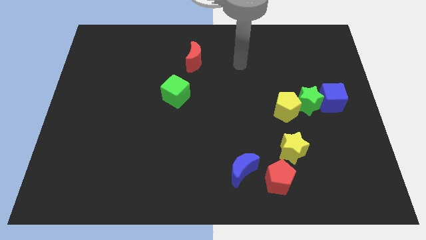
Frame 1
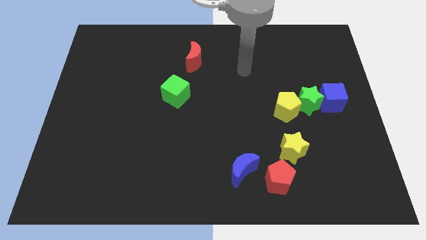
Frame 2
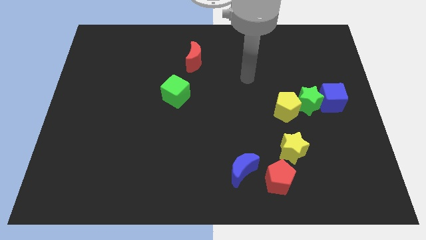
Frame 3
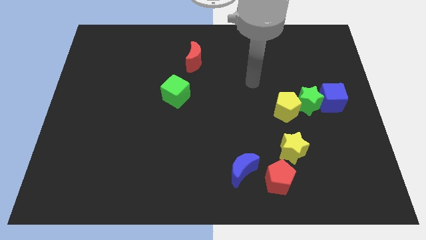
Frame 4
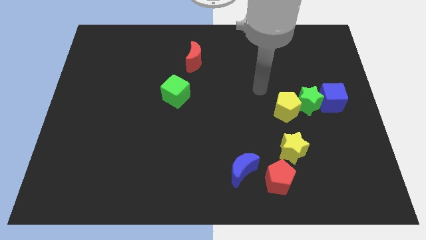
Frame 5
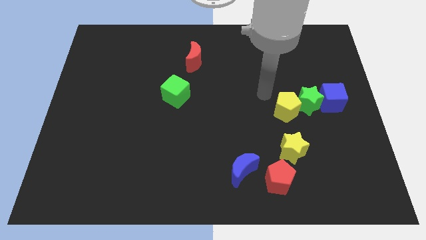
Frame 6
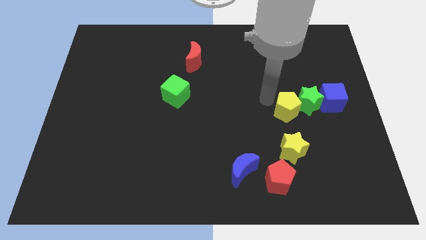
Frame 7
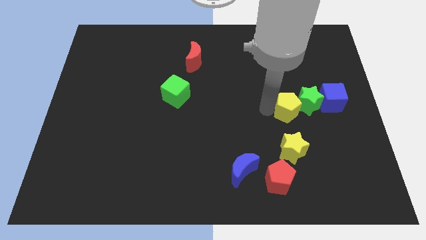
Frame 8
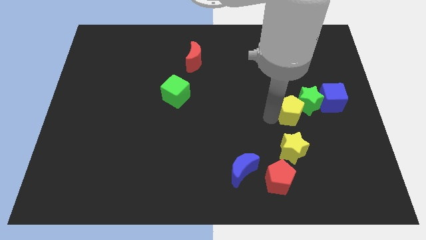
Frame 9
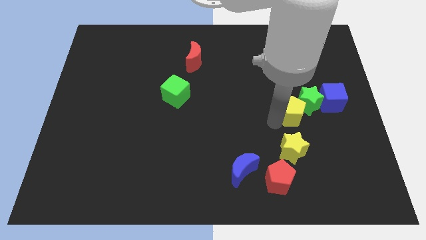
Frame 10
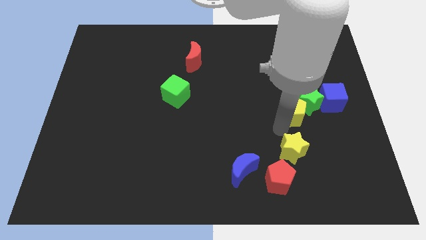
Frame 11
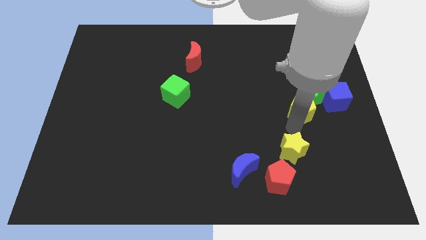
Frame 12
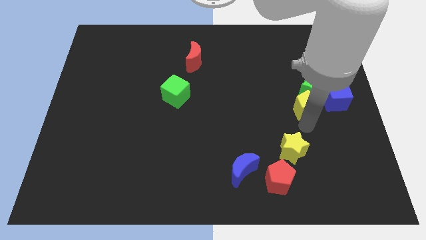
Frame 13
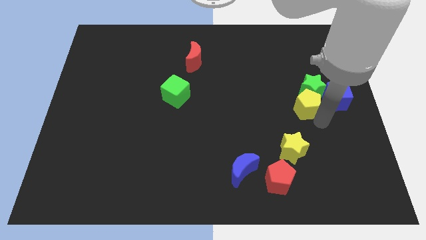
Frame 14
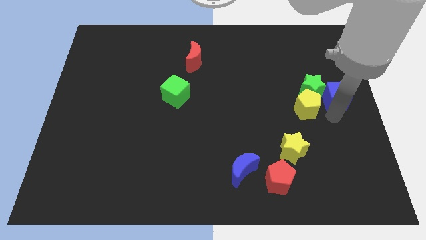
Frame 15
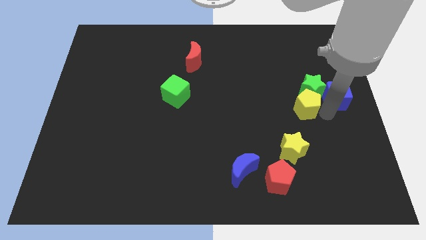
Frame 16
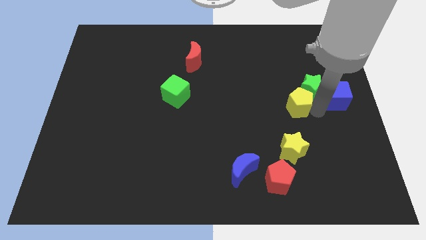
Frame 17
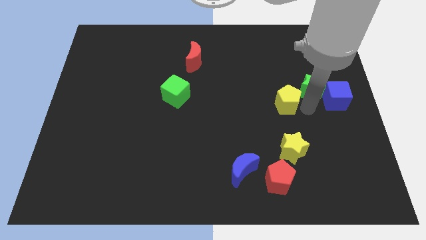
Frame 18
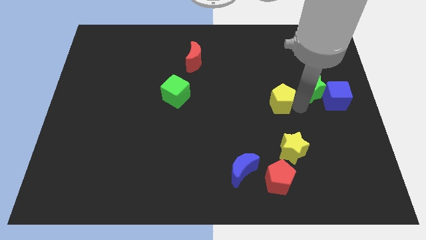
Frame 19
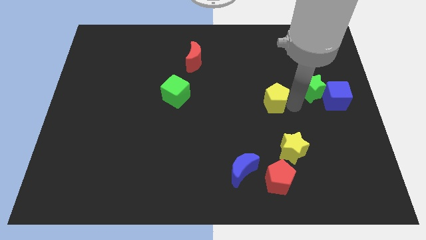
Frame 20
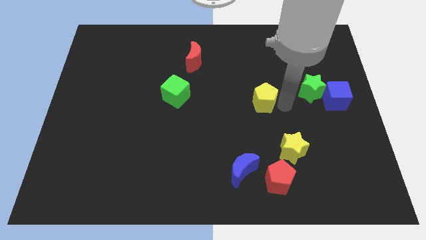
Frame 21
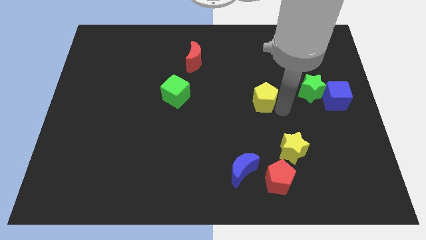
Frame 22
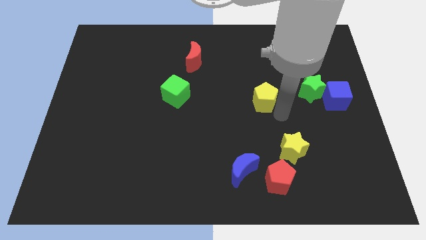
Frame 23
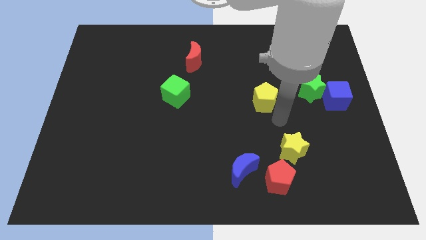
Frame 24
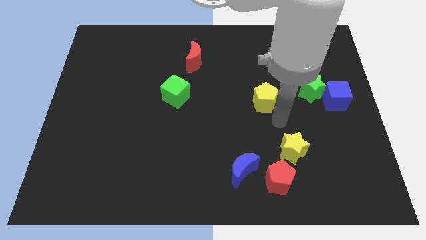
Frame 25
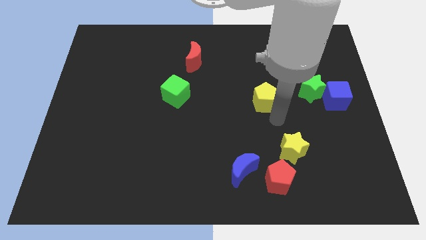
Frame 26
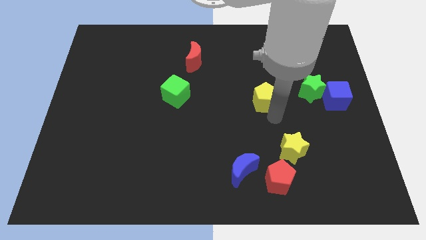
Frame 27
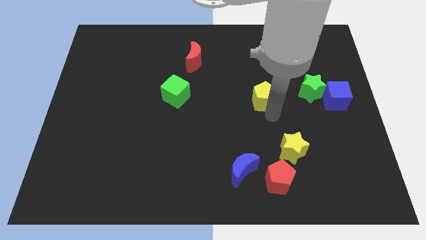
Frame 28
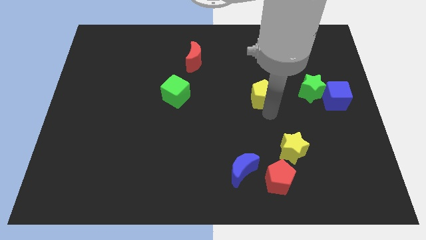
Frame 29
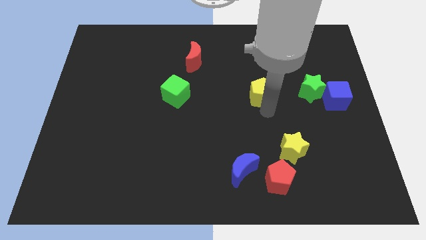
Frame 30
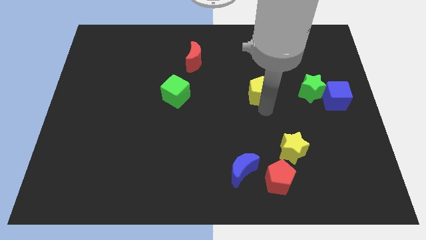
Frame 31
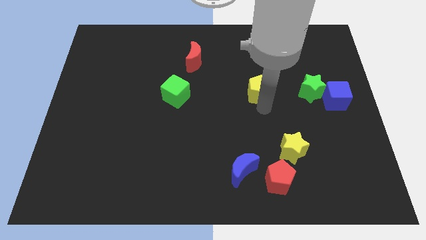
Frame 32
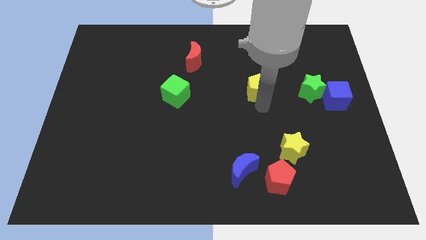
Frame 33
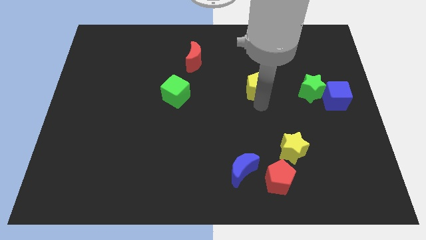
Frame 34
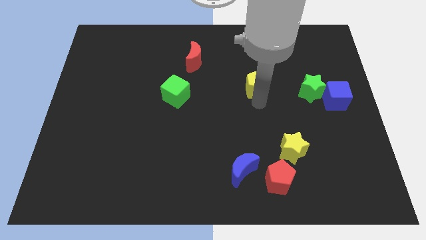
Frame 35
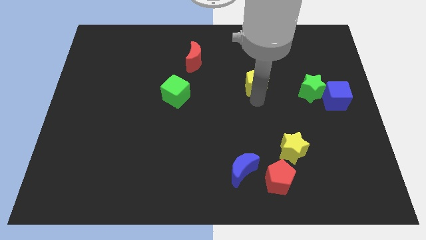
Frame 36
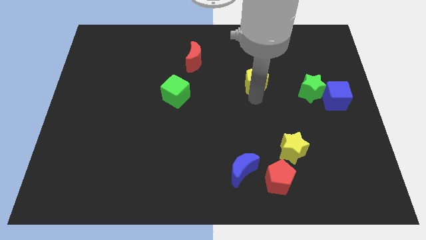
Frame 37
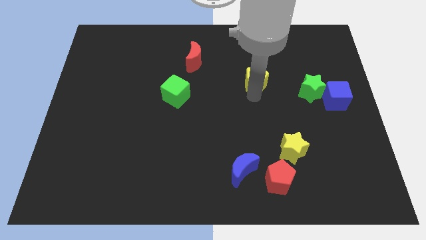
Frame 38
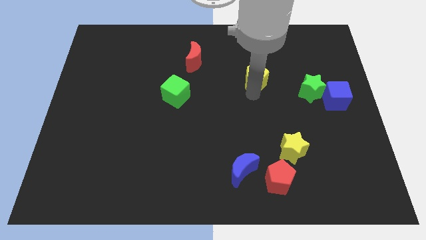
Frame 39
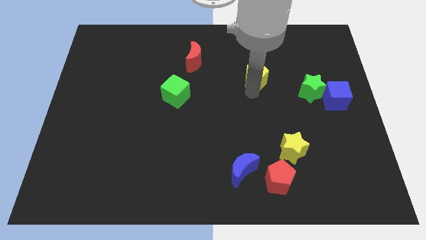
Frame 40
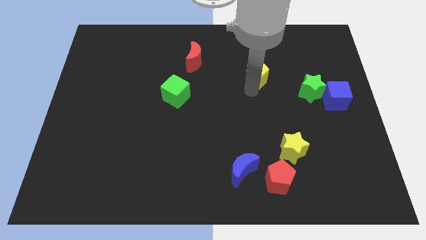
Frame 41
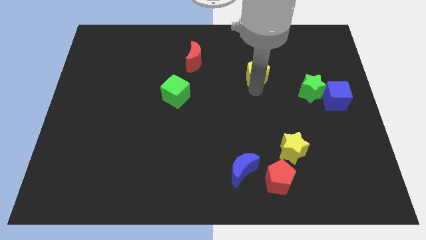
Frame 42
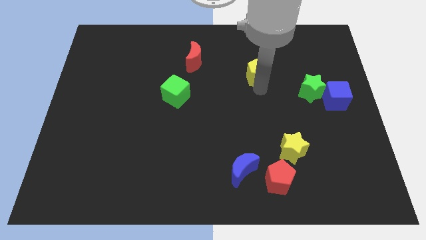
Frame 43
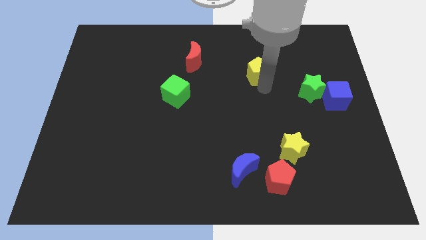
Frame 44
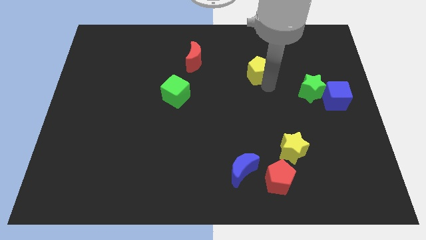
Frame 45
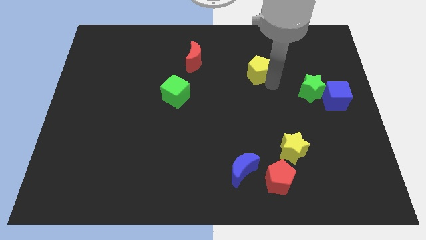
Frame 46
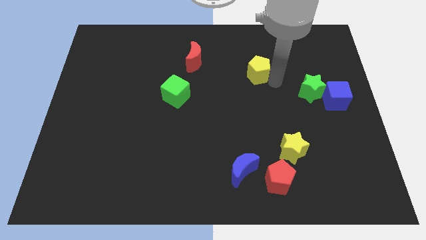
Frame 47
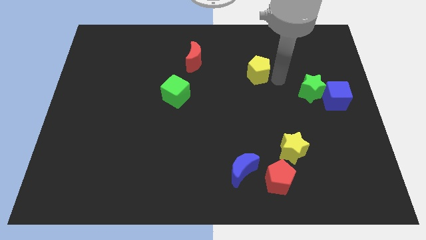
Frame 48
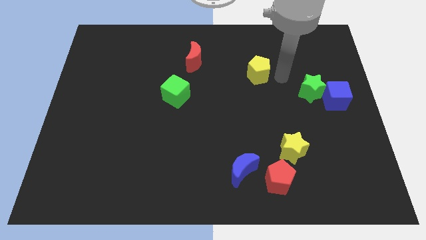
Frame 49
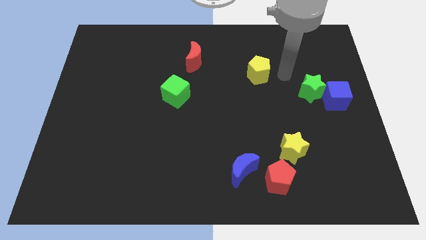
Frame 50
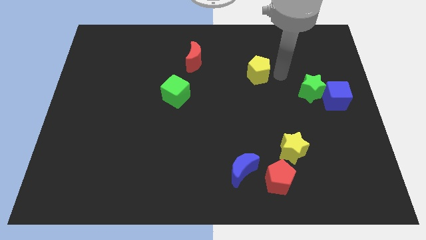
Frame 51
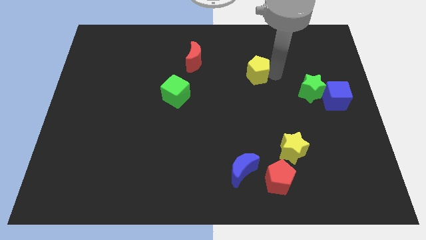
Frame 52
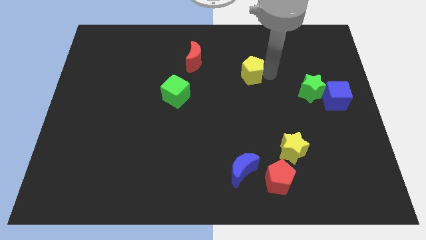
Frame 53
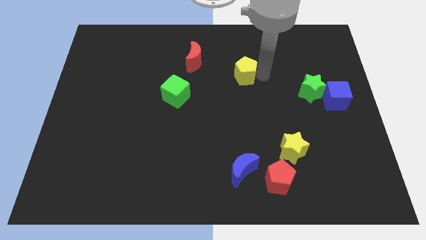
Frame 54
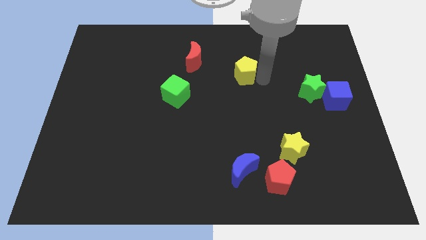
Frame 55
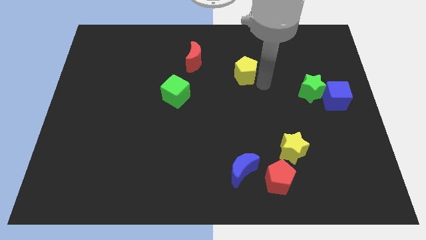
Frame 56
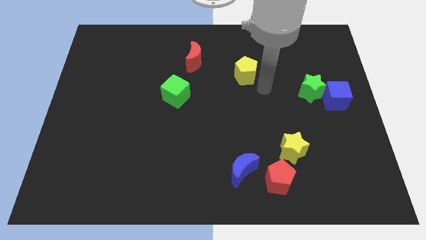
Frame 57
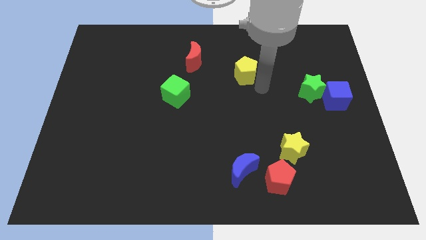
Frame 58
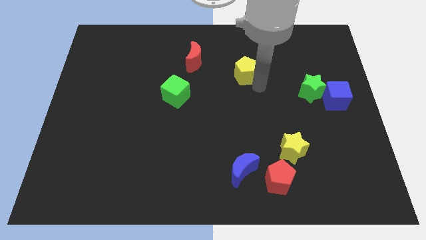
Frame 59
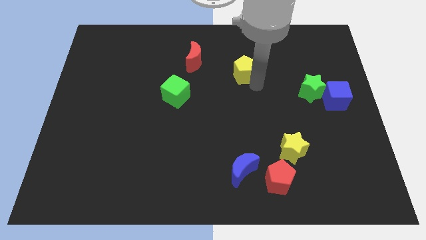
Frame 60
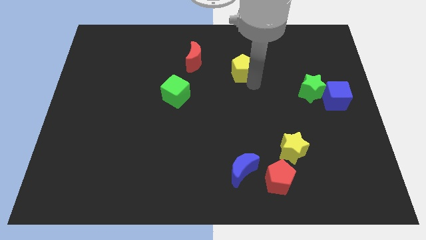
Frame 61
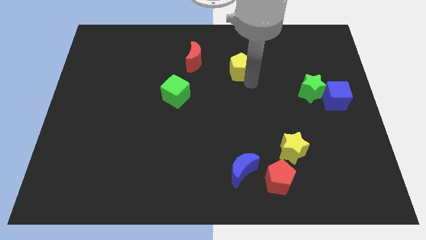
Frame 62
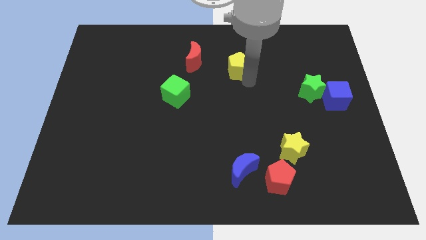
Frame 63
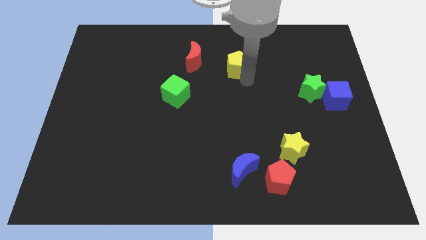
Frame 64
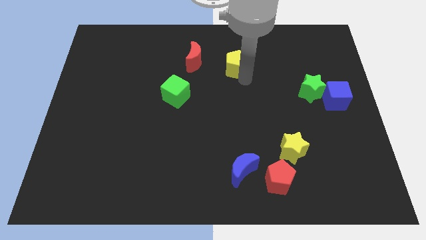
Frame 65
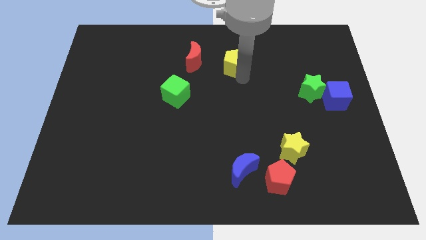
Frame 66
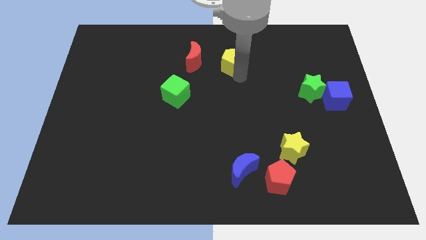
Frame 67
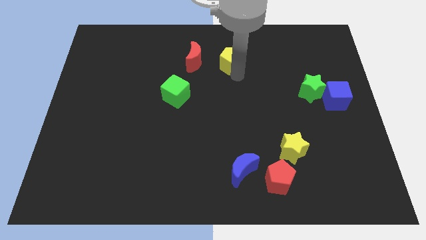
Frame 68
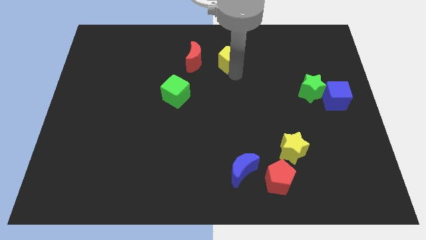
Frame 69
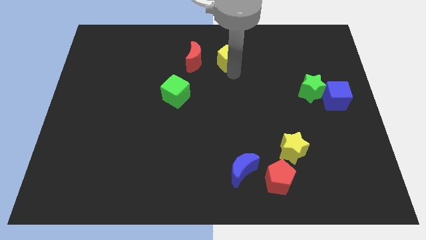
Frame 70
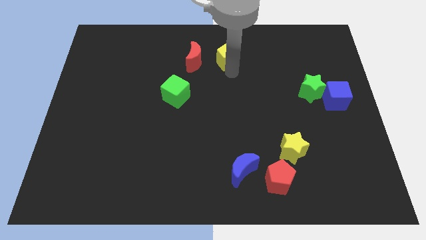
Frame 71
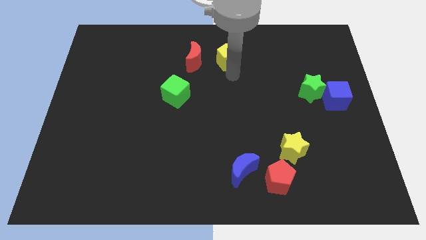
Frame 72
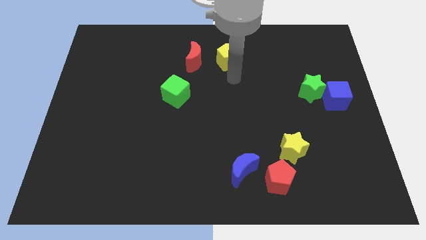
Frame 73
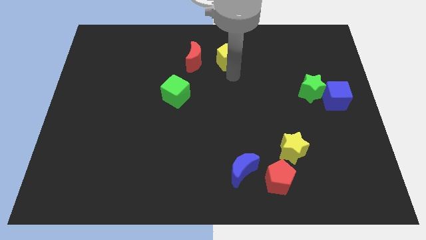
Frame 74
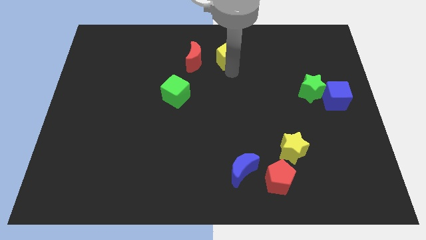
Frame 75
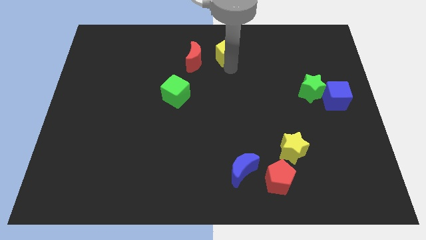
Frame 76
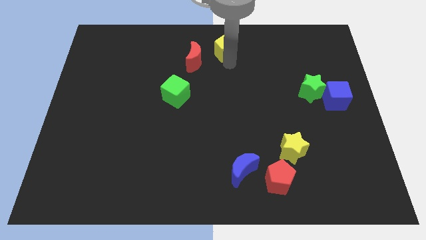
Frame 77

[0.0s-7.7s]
push the yellow pentagon to the top side
